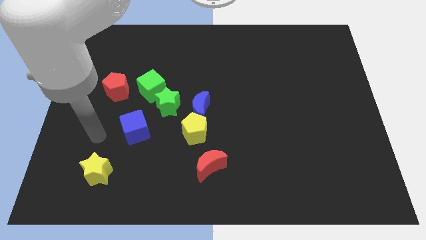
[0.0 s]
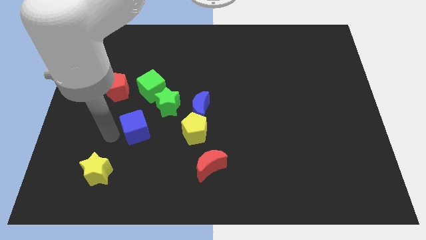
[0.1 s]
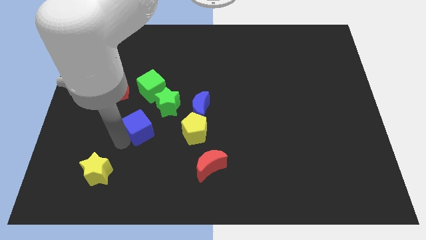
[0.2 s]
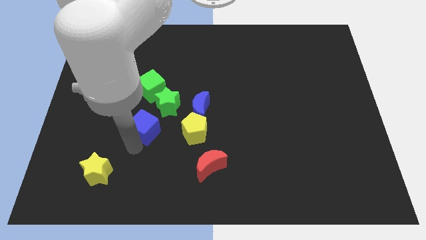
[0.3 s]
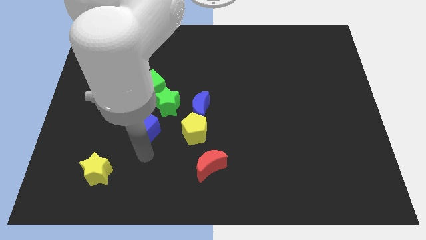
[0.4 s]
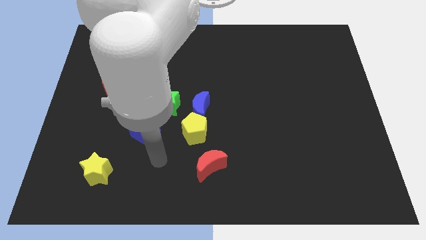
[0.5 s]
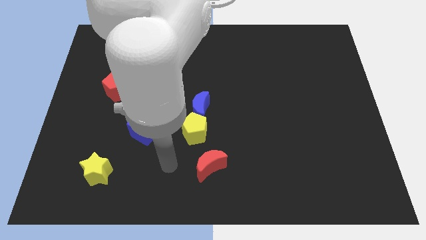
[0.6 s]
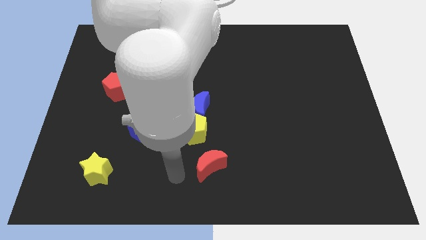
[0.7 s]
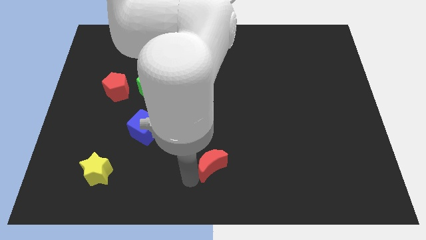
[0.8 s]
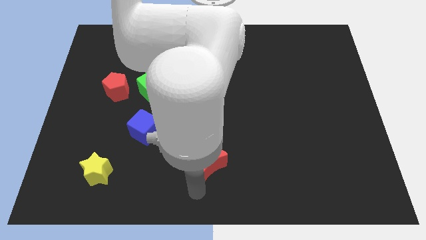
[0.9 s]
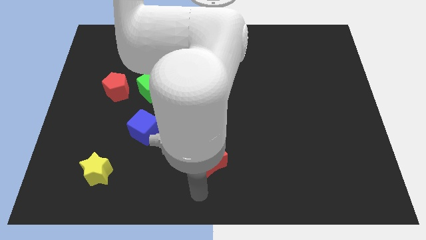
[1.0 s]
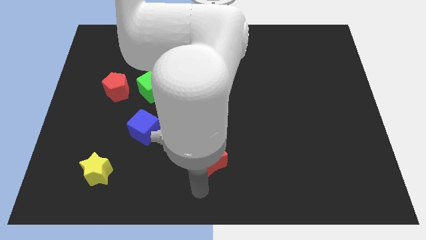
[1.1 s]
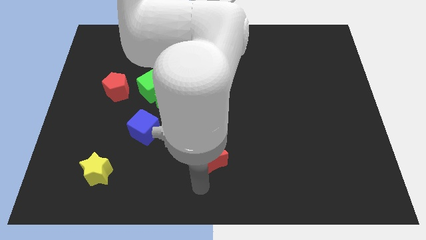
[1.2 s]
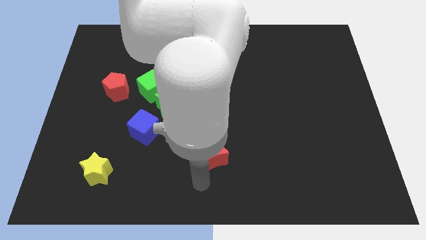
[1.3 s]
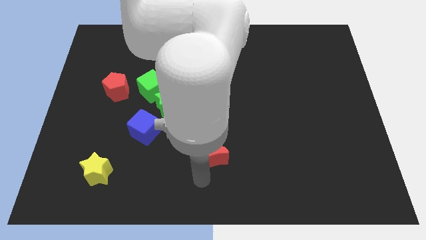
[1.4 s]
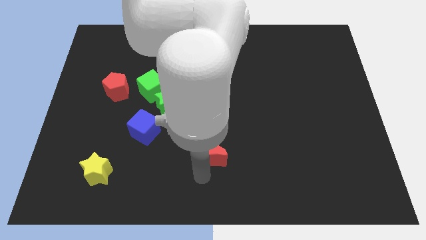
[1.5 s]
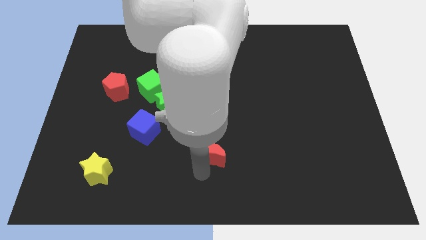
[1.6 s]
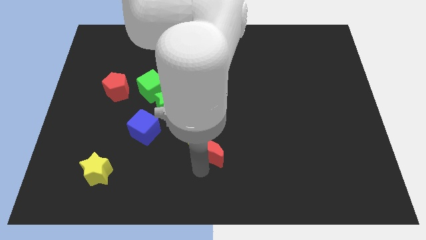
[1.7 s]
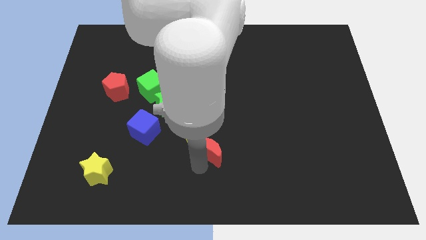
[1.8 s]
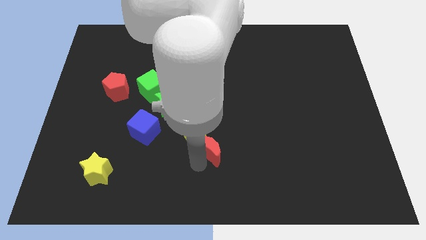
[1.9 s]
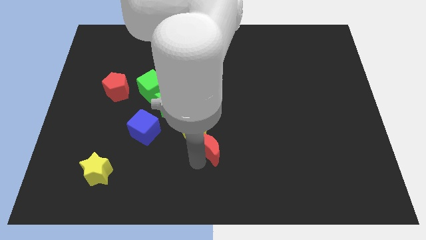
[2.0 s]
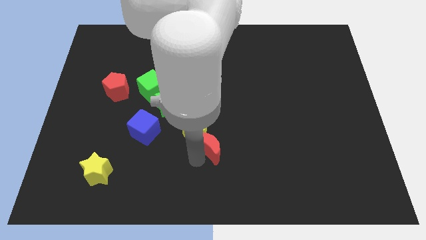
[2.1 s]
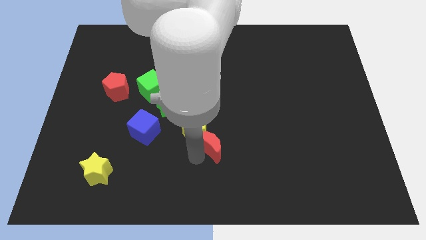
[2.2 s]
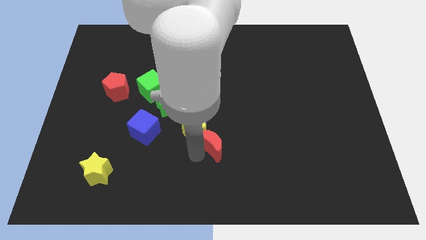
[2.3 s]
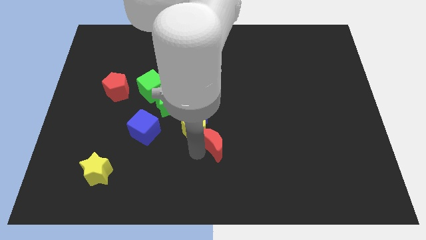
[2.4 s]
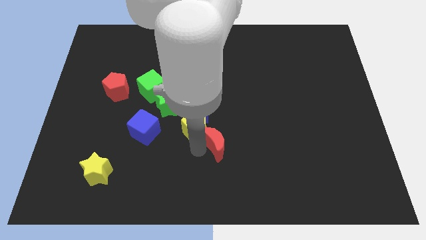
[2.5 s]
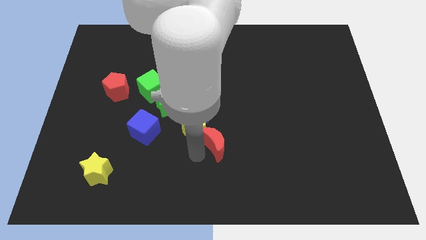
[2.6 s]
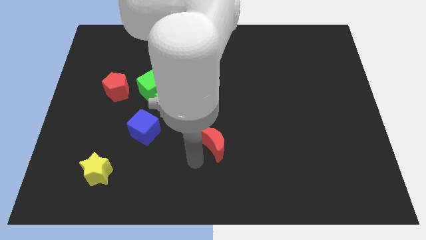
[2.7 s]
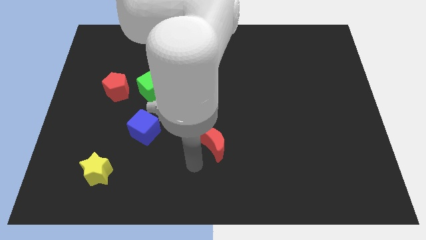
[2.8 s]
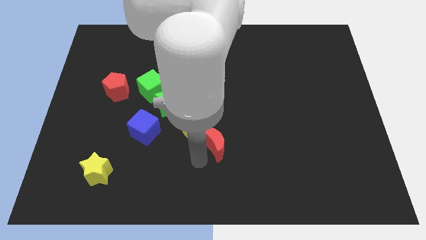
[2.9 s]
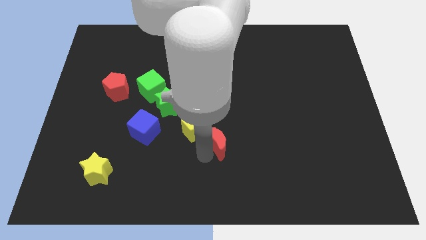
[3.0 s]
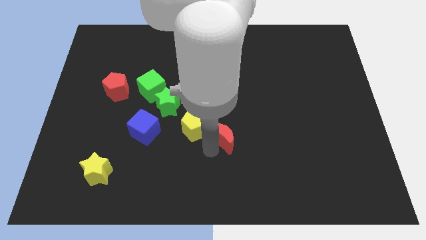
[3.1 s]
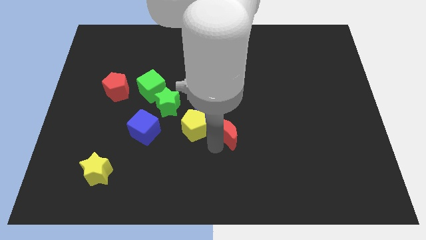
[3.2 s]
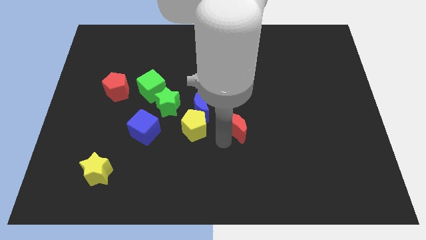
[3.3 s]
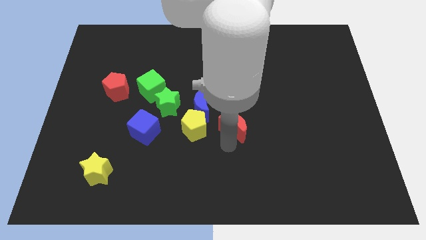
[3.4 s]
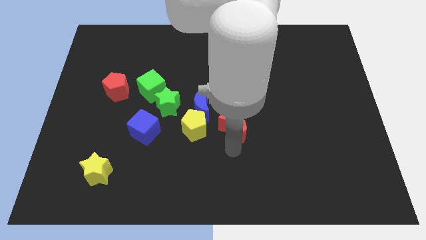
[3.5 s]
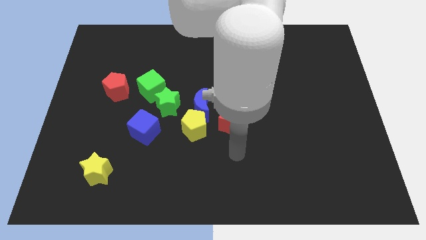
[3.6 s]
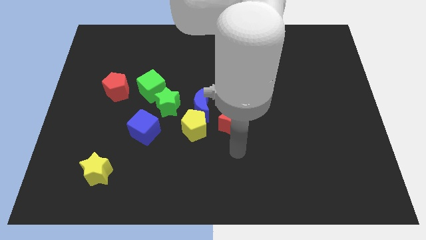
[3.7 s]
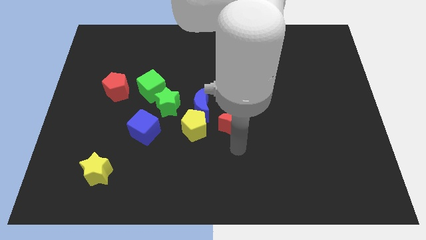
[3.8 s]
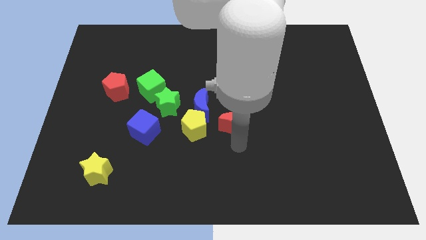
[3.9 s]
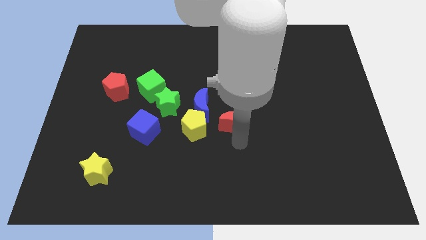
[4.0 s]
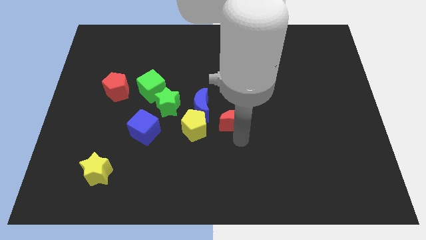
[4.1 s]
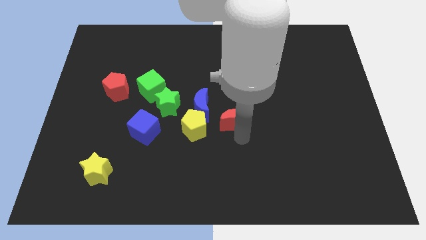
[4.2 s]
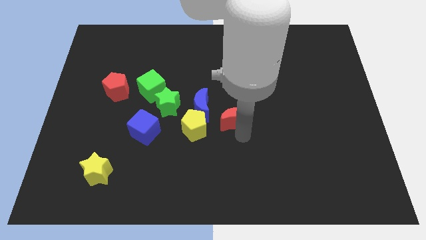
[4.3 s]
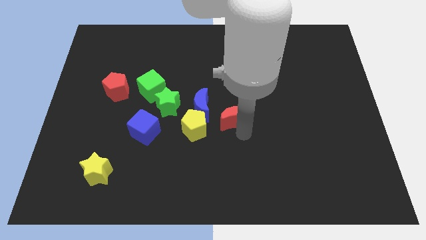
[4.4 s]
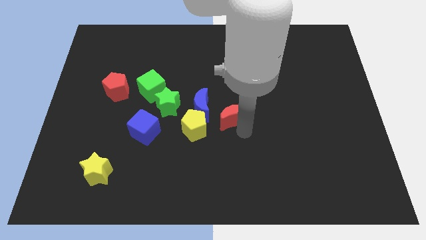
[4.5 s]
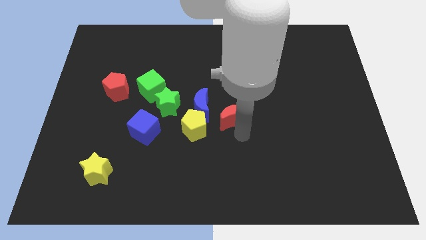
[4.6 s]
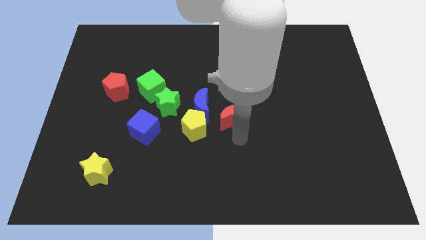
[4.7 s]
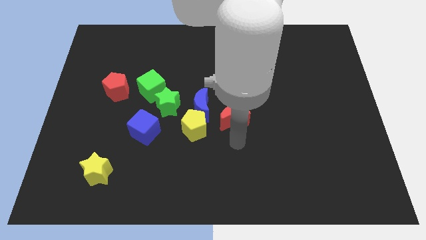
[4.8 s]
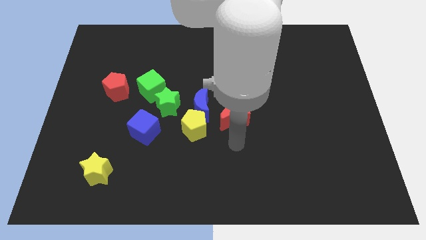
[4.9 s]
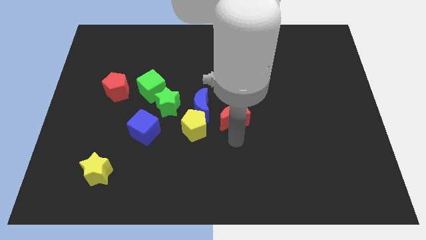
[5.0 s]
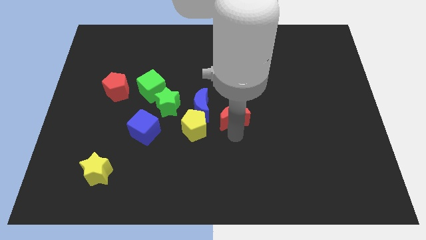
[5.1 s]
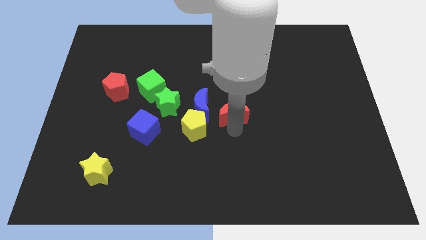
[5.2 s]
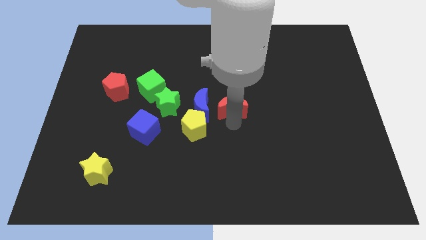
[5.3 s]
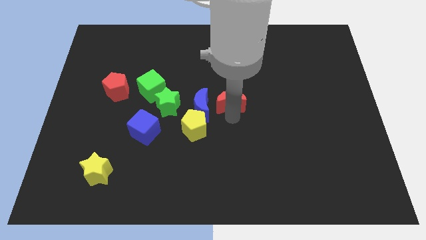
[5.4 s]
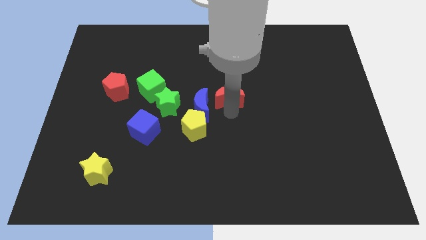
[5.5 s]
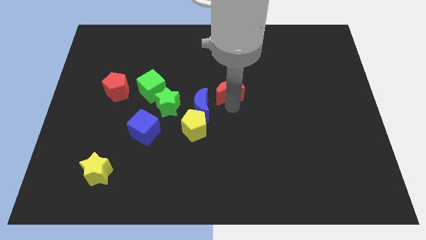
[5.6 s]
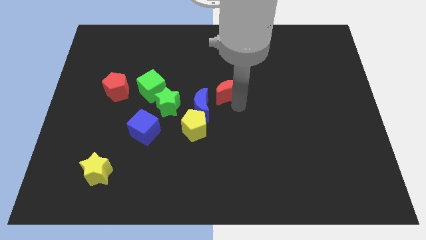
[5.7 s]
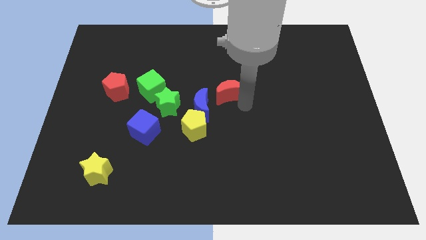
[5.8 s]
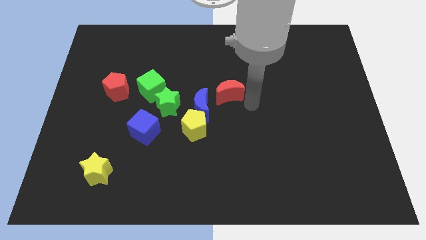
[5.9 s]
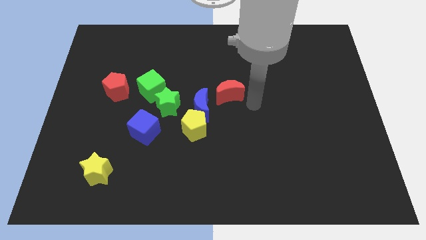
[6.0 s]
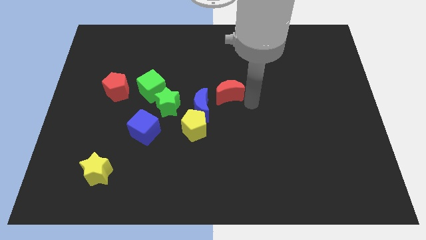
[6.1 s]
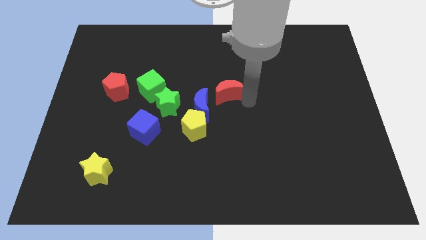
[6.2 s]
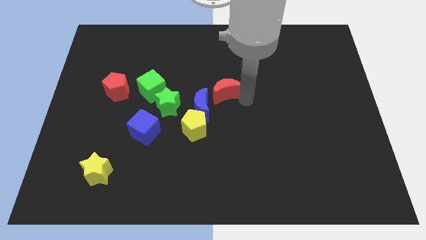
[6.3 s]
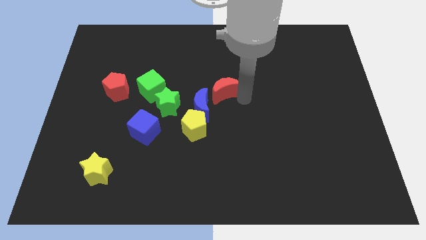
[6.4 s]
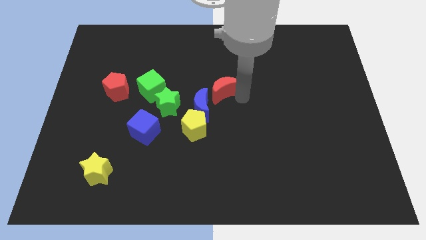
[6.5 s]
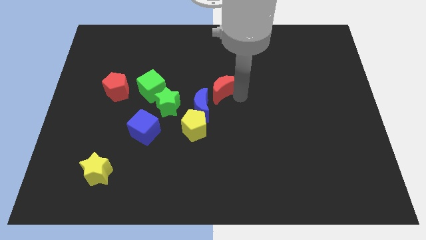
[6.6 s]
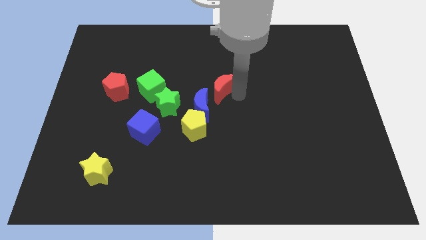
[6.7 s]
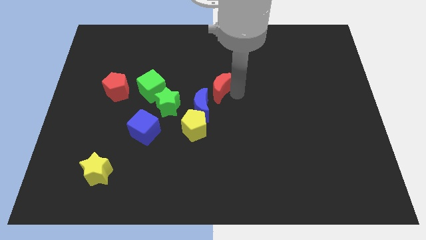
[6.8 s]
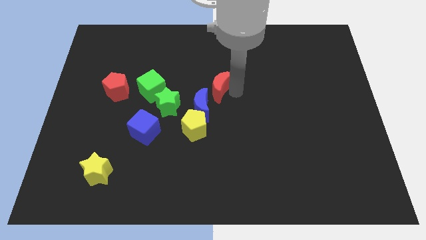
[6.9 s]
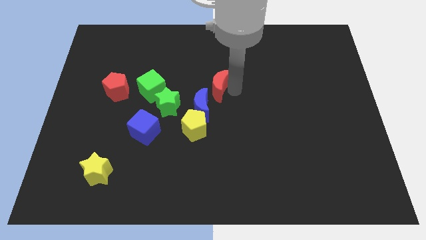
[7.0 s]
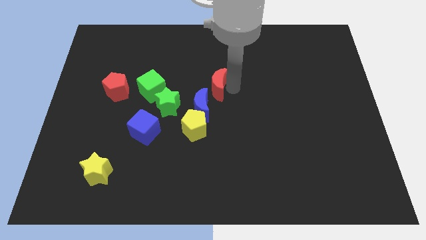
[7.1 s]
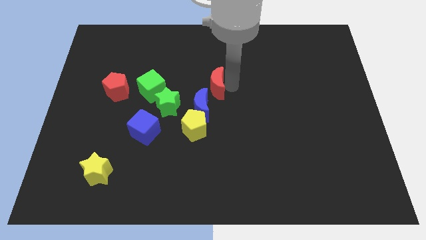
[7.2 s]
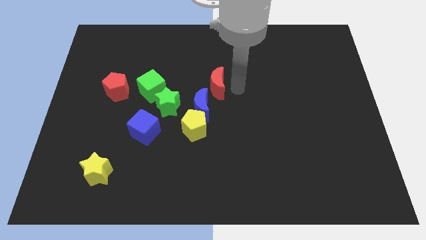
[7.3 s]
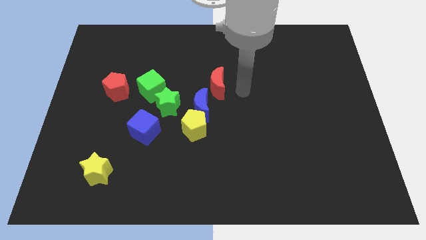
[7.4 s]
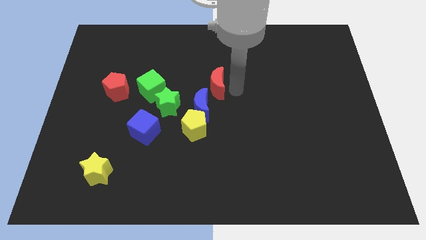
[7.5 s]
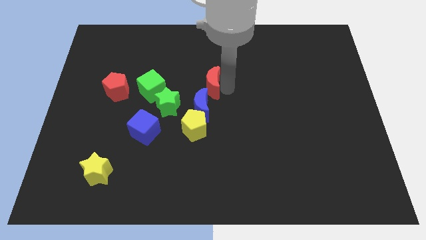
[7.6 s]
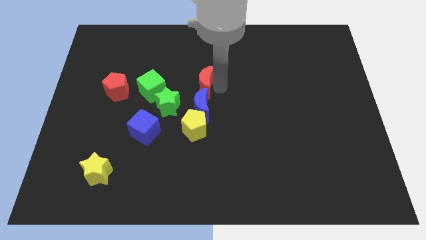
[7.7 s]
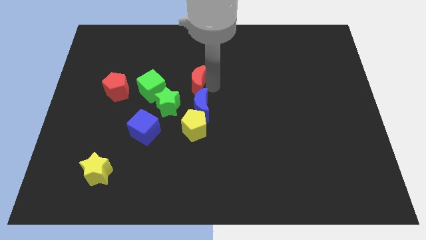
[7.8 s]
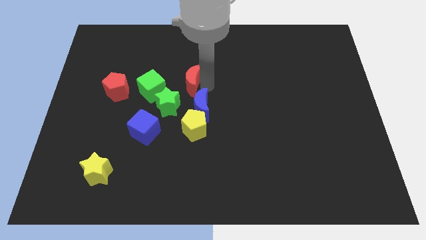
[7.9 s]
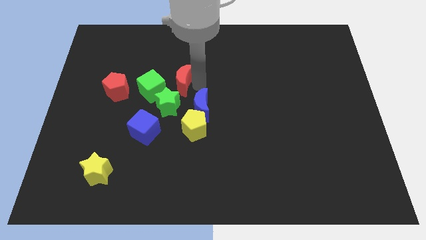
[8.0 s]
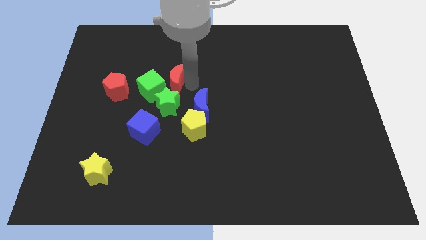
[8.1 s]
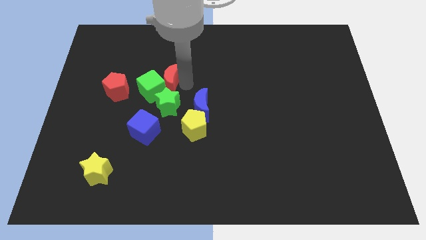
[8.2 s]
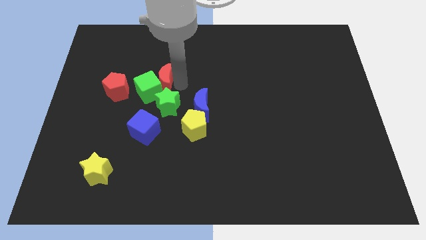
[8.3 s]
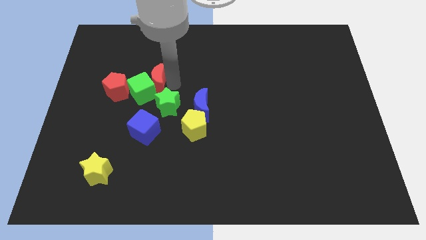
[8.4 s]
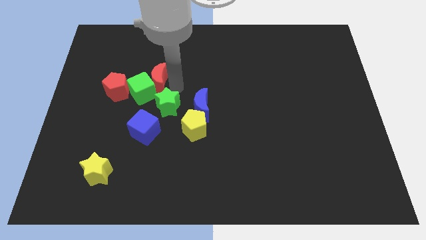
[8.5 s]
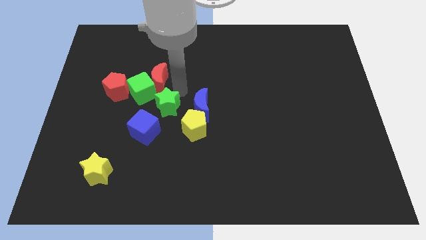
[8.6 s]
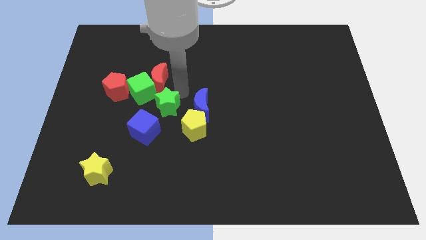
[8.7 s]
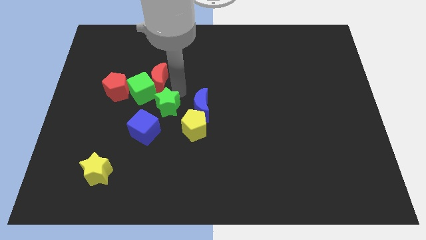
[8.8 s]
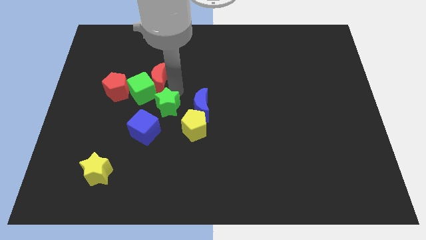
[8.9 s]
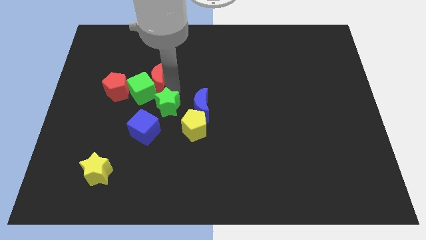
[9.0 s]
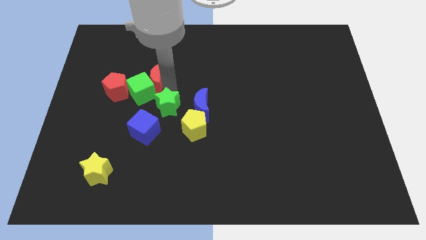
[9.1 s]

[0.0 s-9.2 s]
put the red moon diagonally up and to the right of the red pentagon
